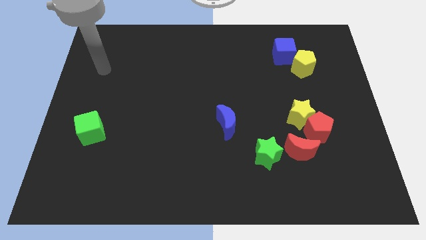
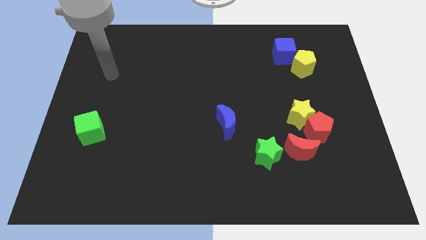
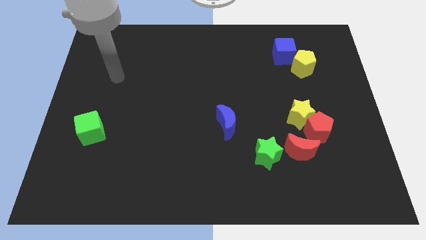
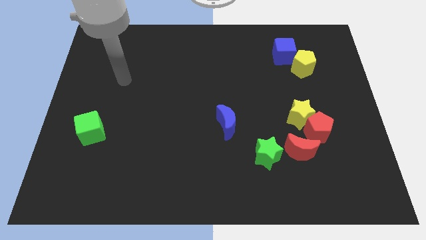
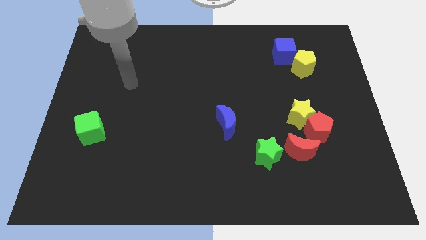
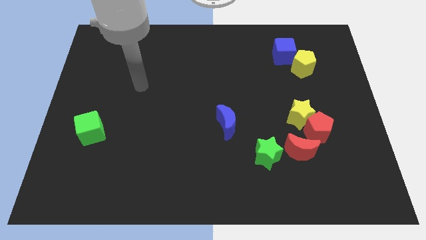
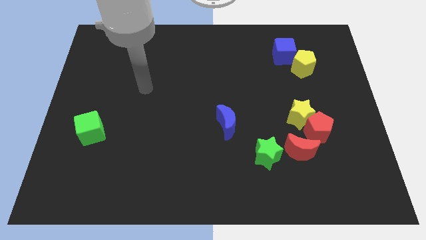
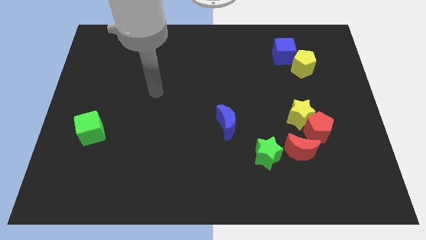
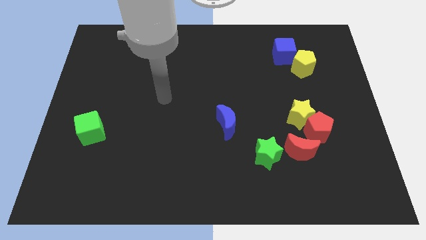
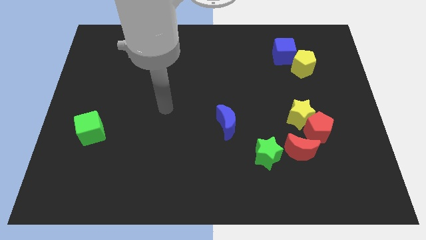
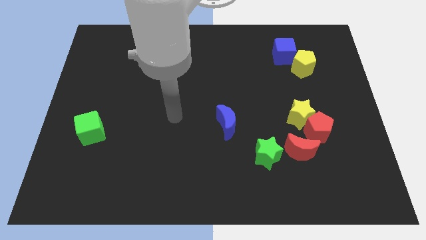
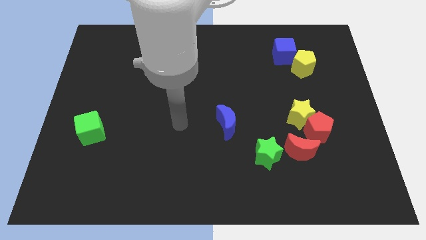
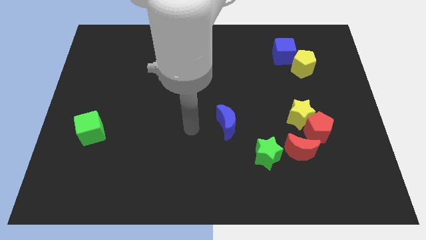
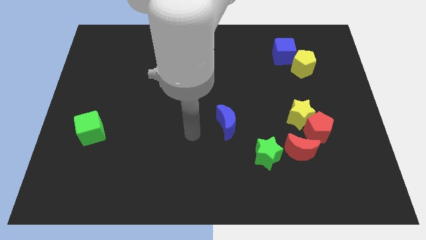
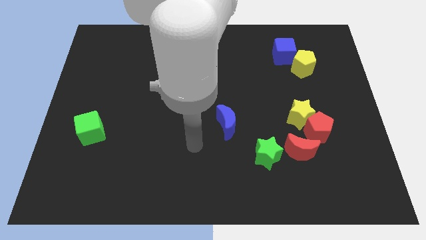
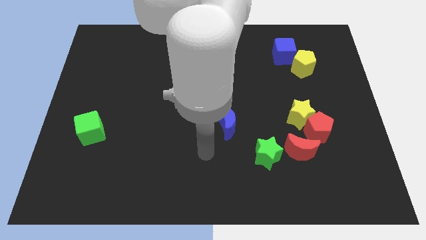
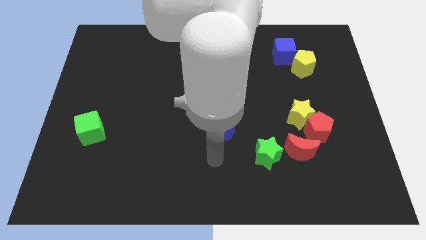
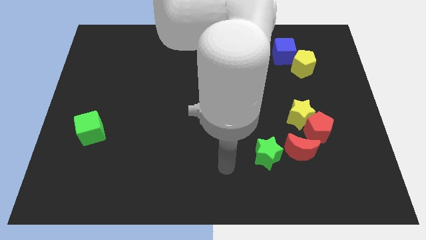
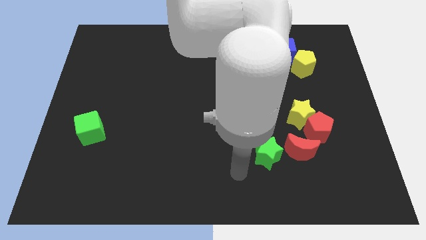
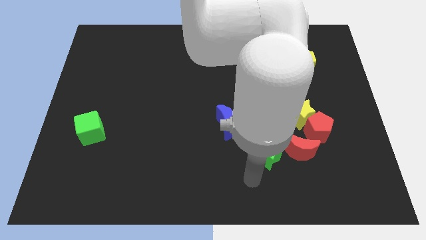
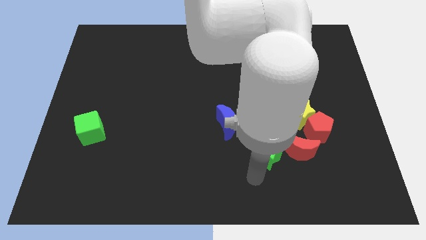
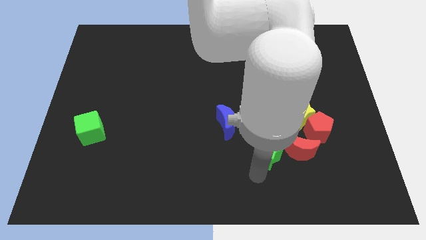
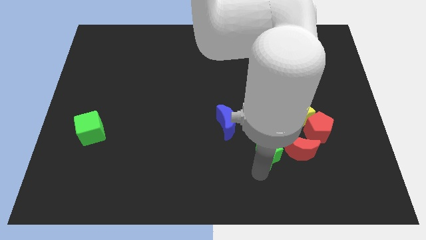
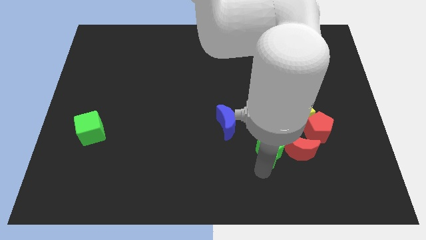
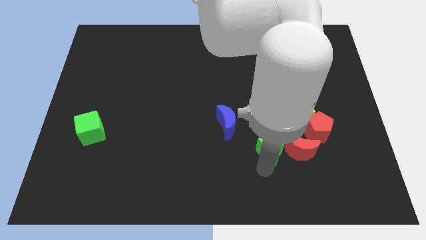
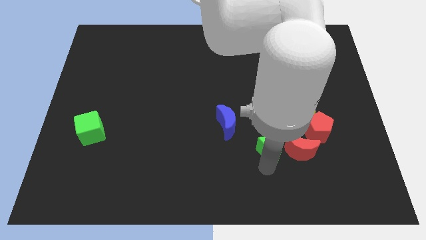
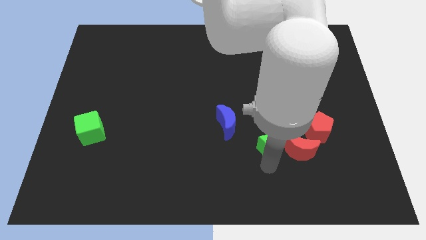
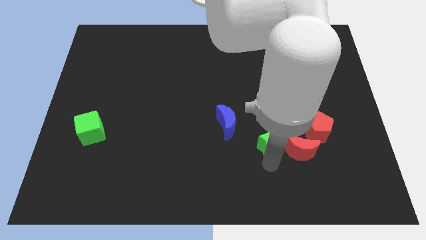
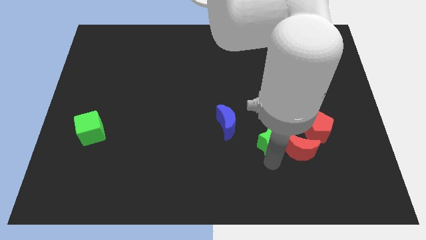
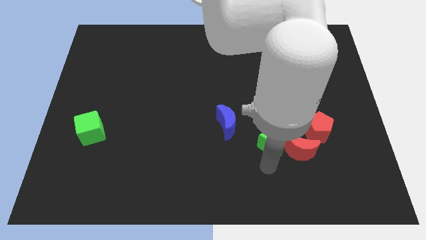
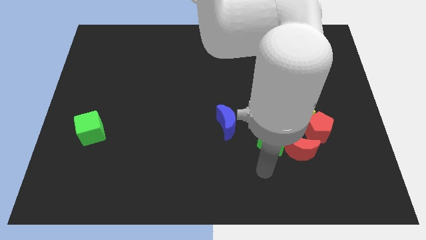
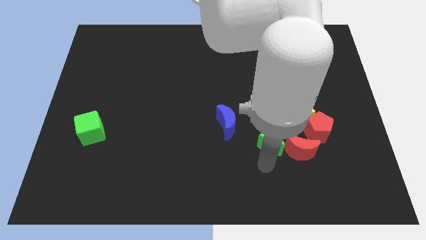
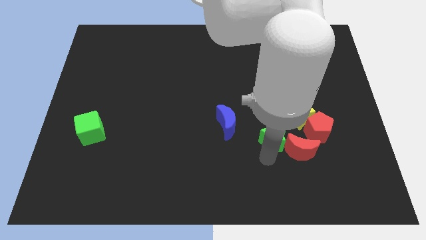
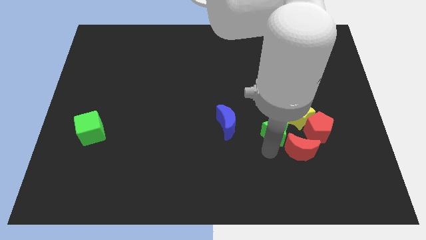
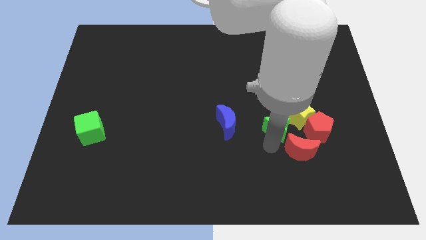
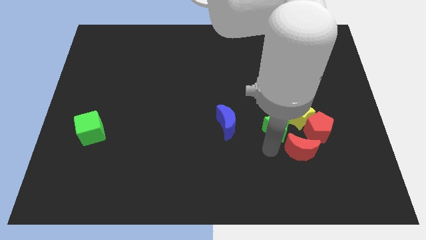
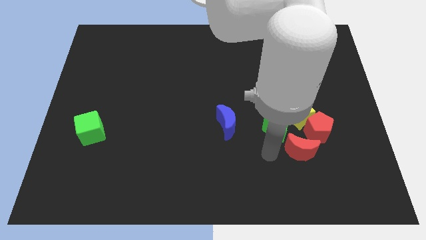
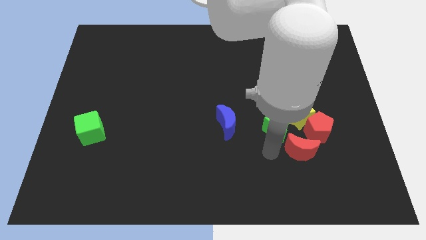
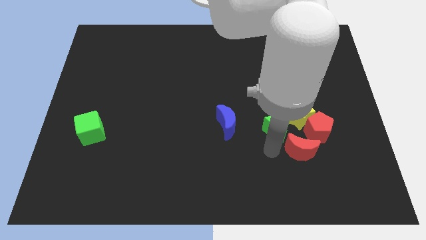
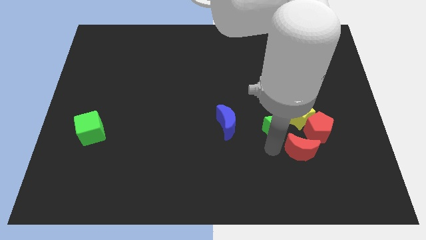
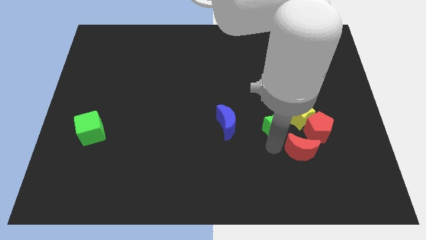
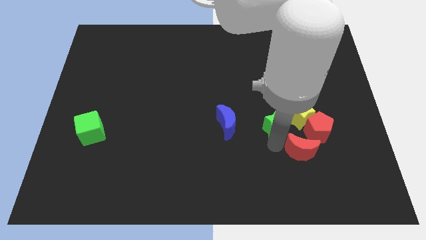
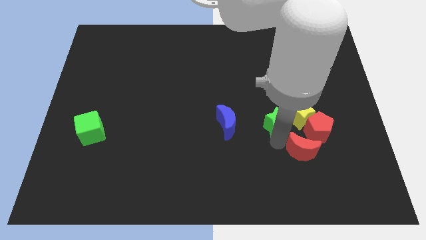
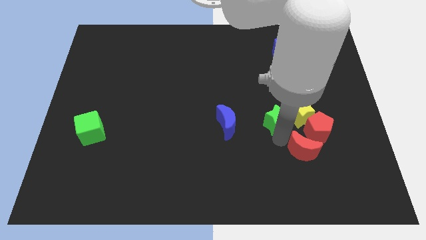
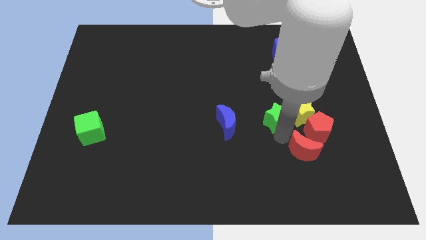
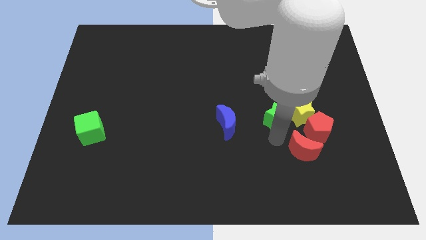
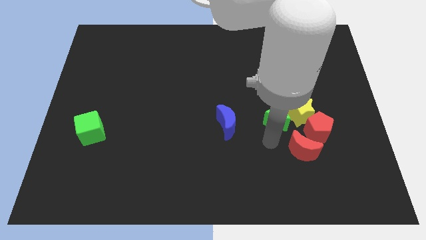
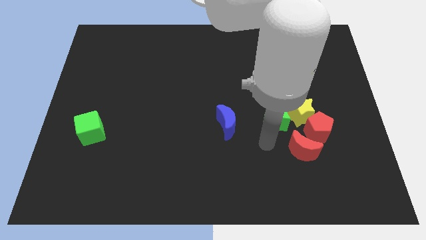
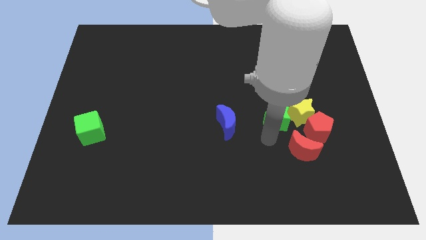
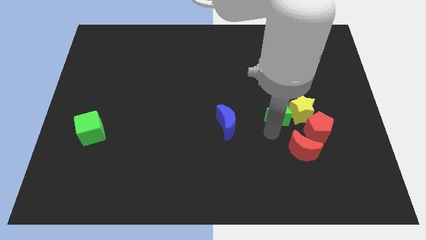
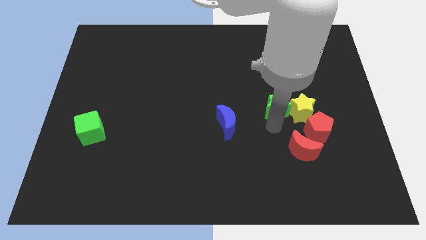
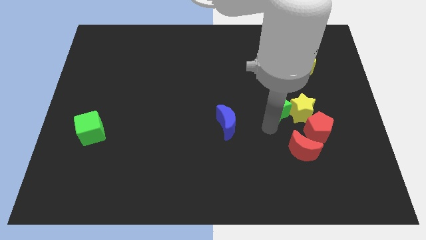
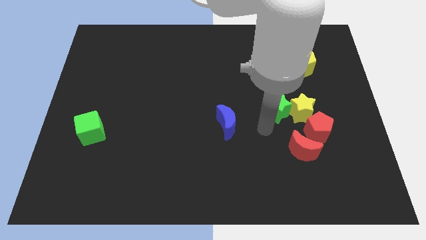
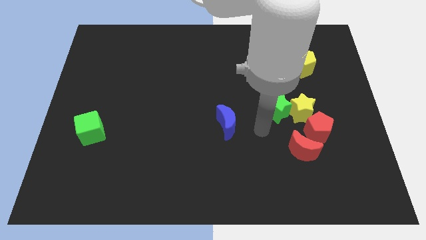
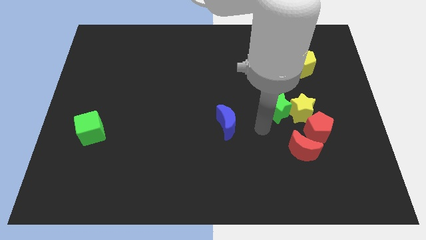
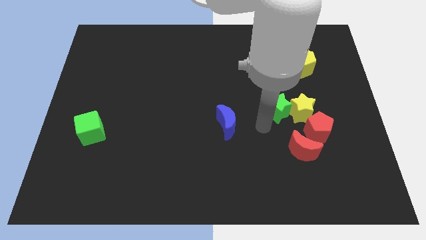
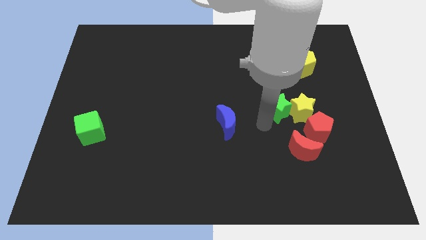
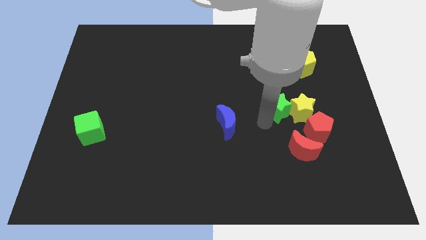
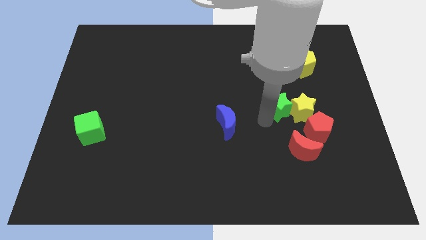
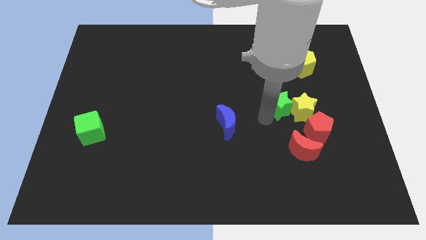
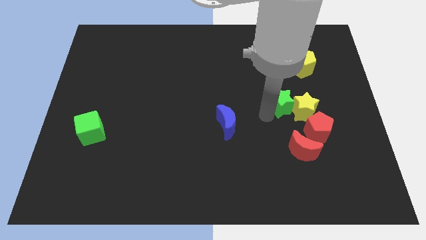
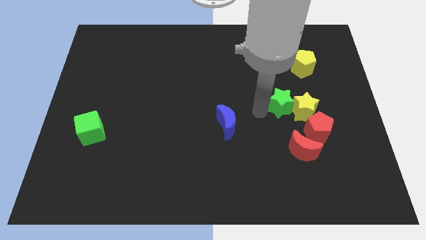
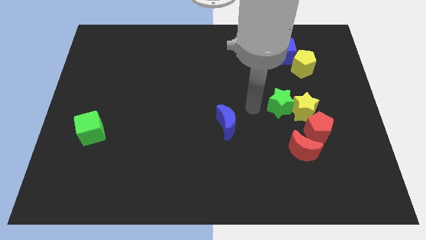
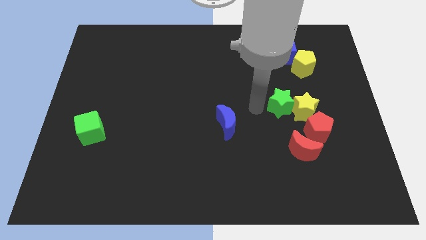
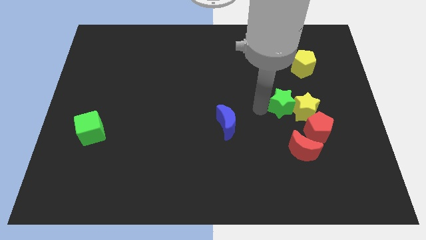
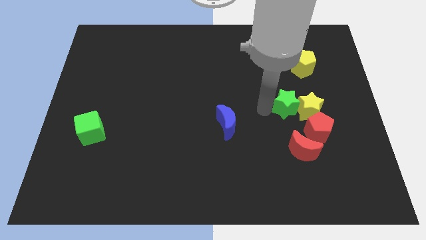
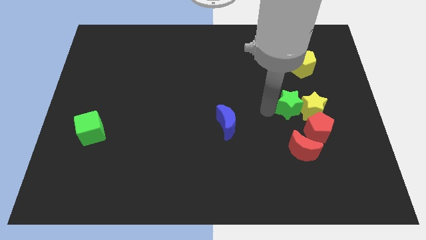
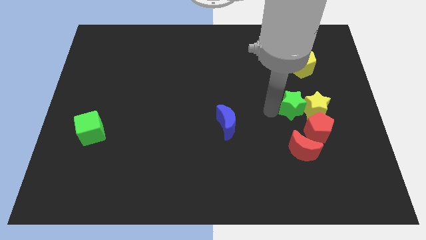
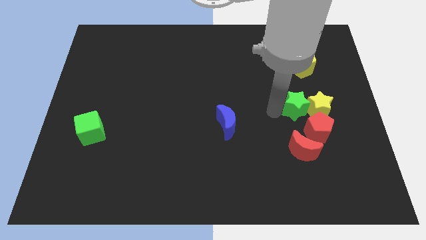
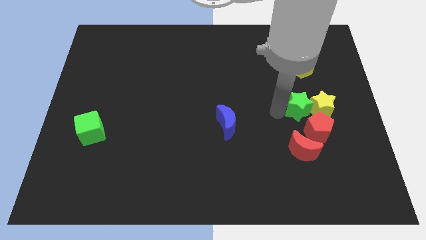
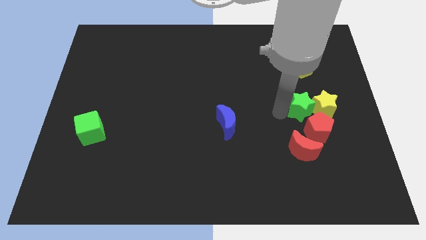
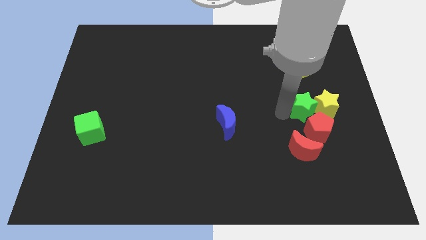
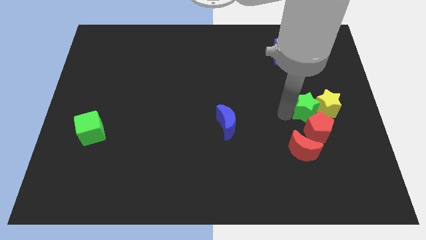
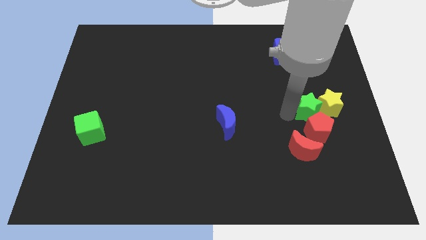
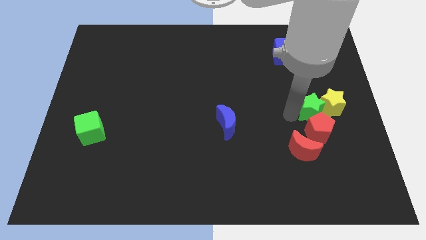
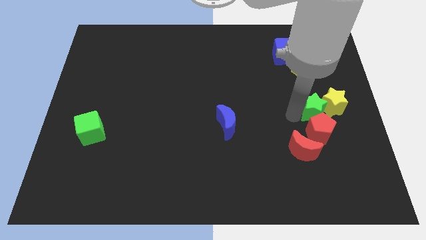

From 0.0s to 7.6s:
put the green star to the top right side of the red moon
